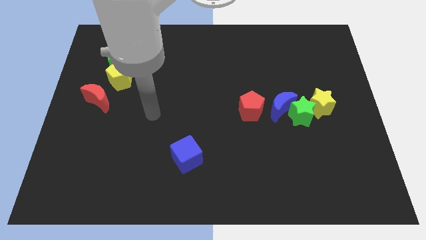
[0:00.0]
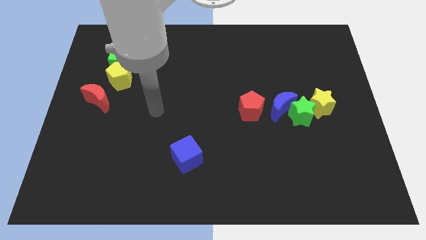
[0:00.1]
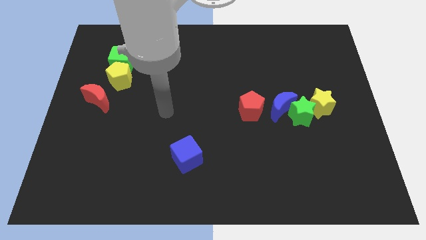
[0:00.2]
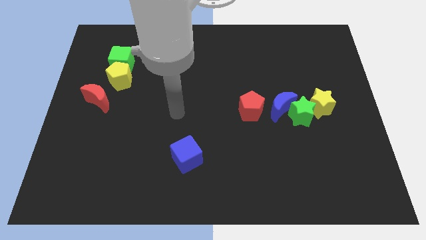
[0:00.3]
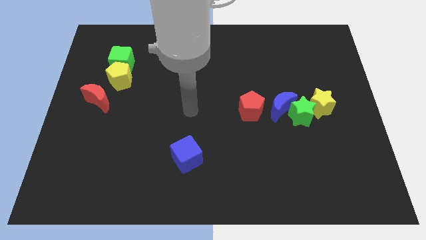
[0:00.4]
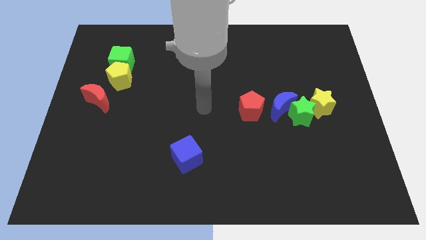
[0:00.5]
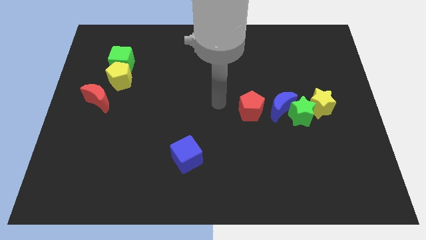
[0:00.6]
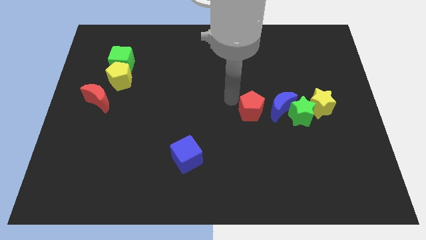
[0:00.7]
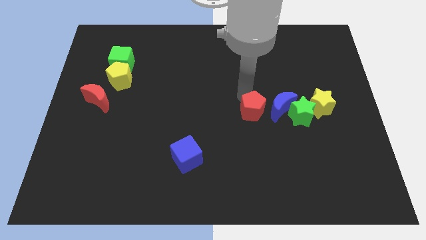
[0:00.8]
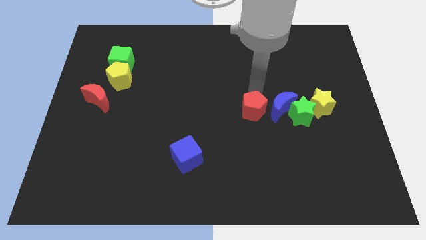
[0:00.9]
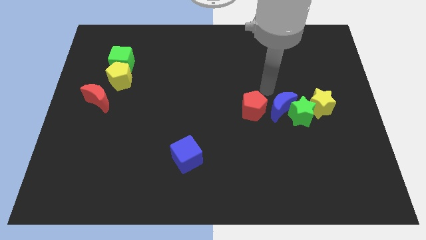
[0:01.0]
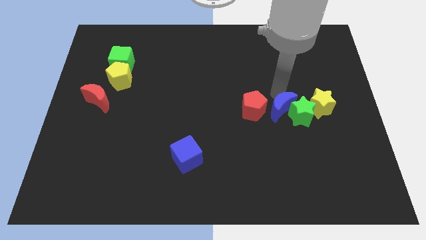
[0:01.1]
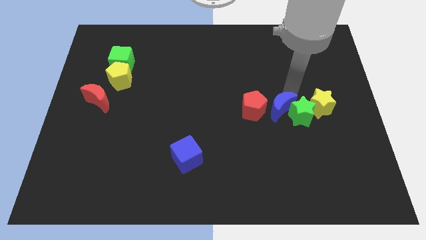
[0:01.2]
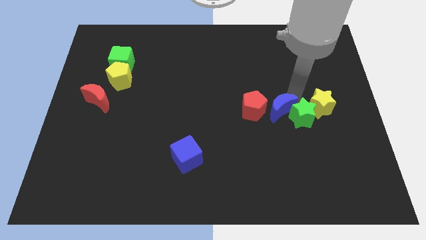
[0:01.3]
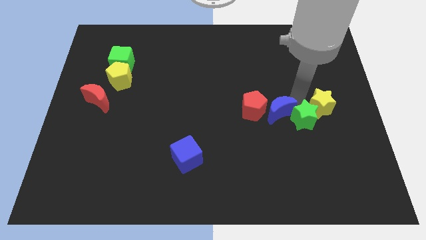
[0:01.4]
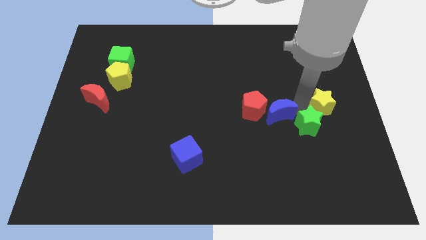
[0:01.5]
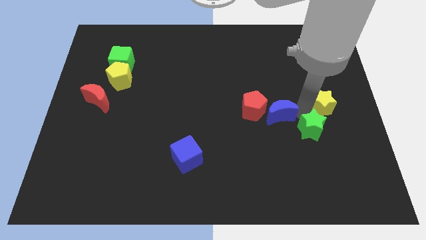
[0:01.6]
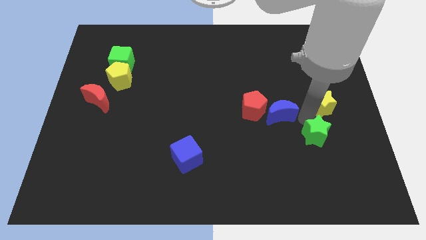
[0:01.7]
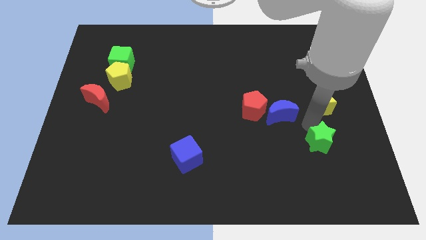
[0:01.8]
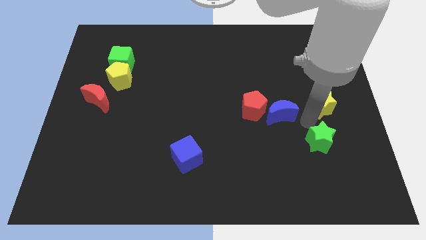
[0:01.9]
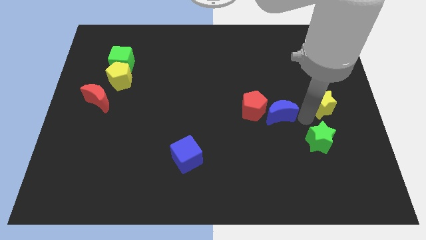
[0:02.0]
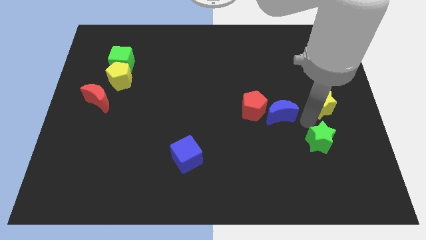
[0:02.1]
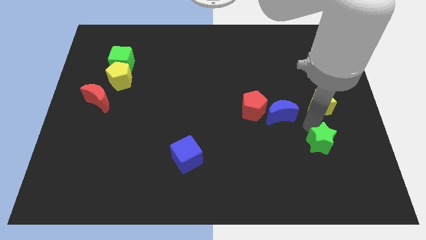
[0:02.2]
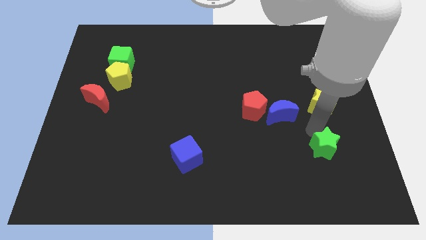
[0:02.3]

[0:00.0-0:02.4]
separate the green star from the blue moon and yellow star

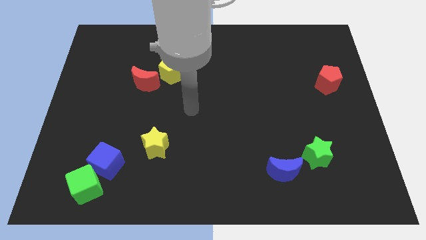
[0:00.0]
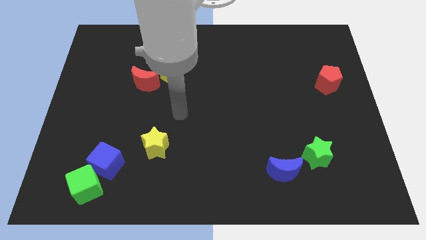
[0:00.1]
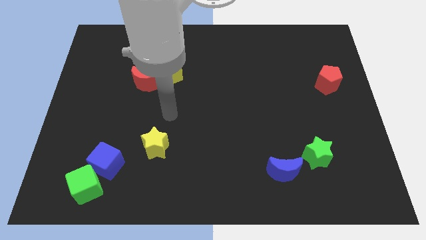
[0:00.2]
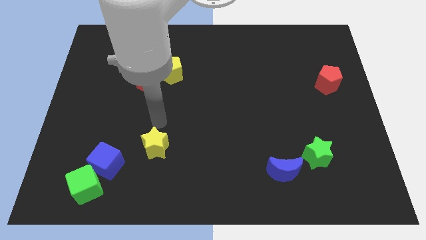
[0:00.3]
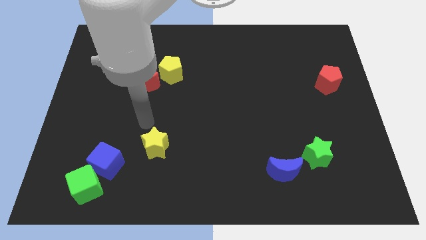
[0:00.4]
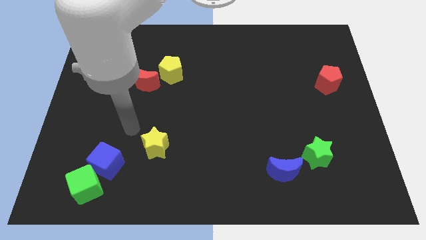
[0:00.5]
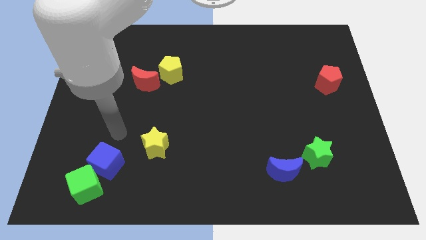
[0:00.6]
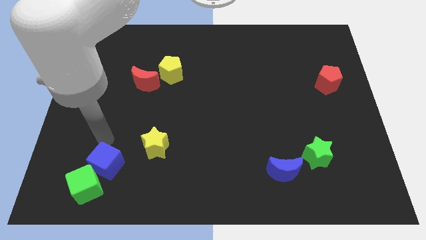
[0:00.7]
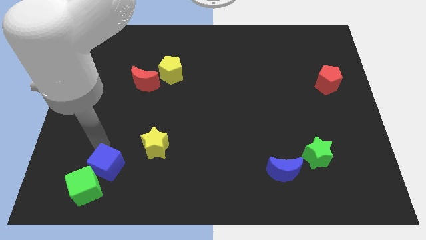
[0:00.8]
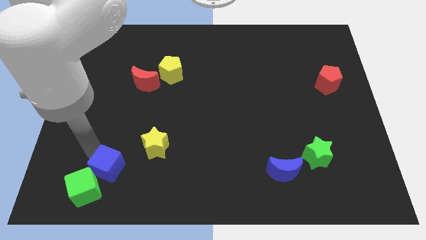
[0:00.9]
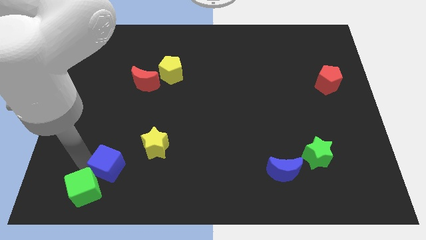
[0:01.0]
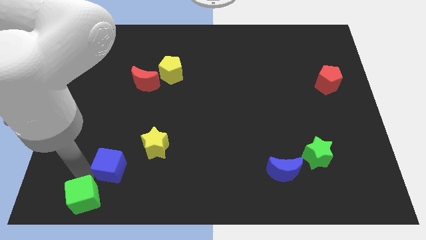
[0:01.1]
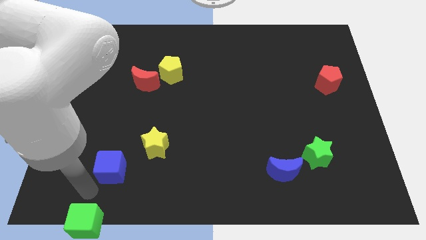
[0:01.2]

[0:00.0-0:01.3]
separate the blue cube from the green cube

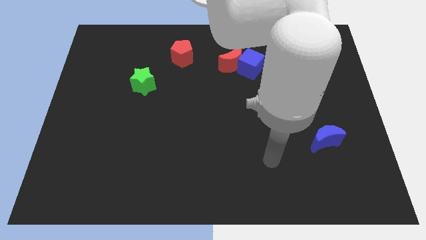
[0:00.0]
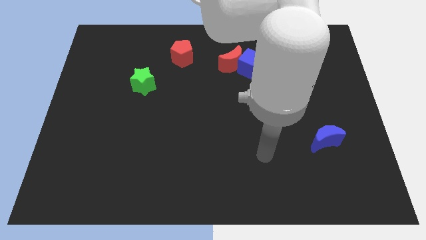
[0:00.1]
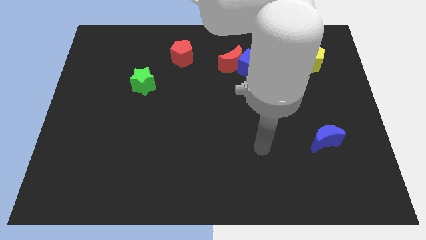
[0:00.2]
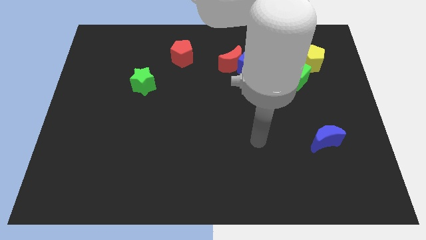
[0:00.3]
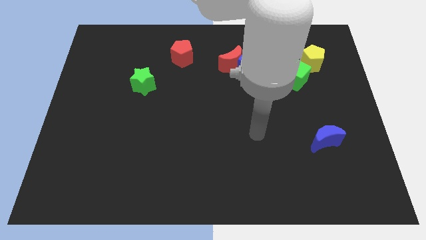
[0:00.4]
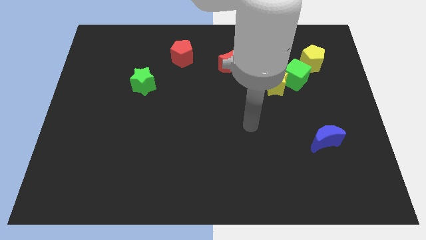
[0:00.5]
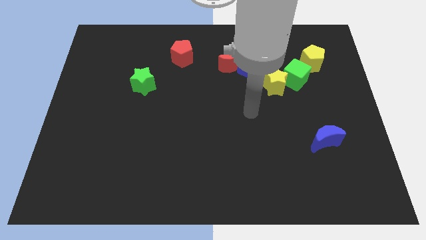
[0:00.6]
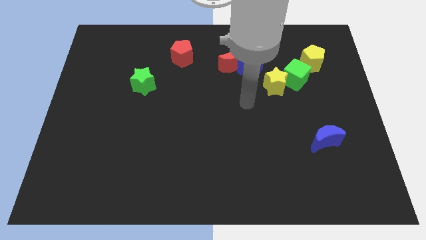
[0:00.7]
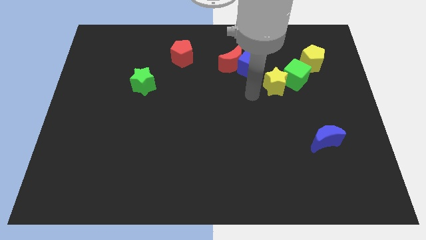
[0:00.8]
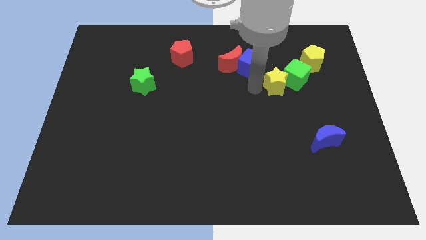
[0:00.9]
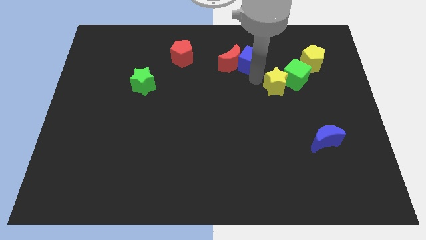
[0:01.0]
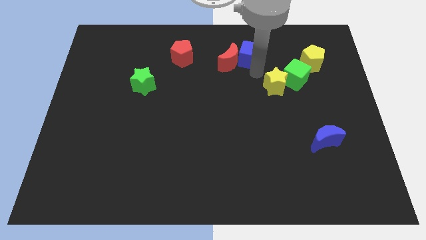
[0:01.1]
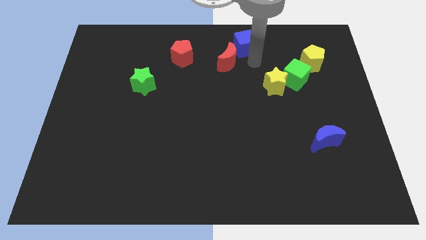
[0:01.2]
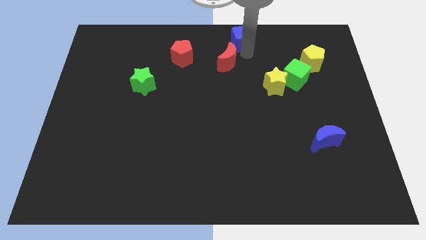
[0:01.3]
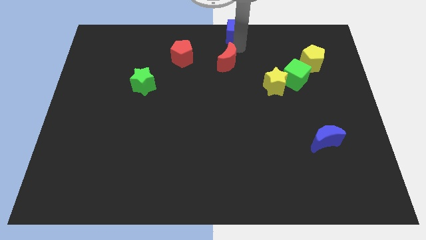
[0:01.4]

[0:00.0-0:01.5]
separate the red moon from the blue cube

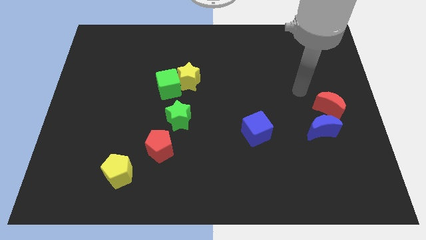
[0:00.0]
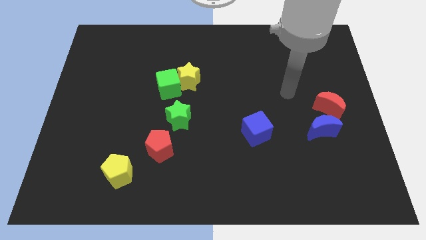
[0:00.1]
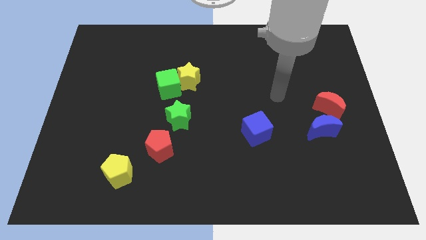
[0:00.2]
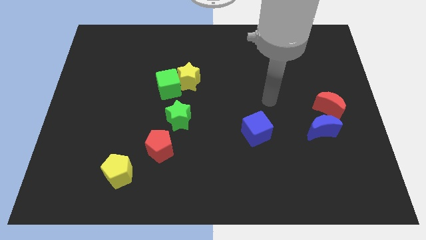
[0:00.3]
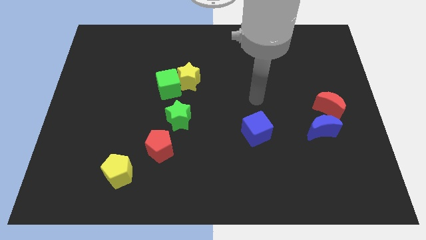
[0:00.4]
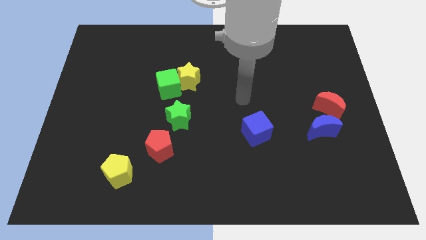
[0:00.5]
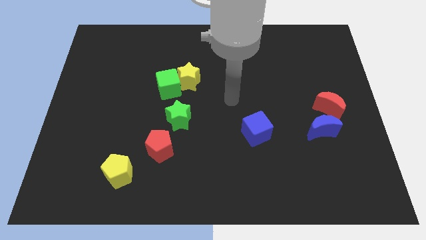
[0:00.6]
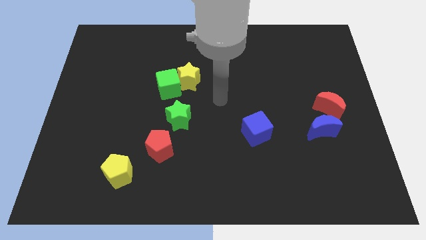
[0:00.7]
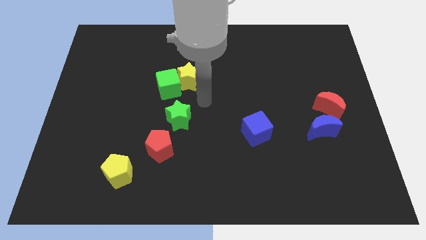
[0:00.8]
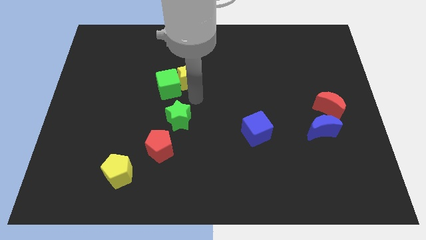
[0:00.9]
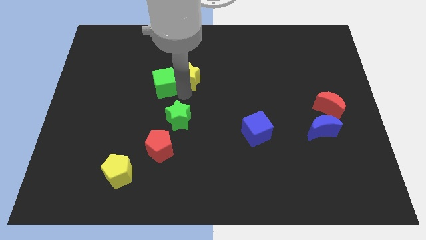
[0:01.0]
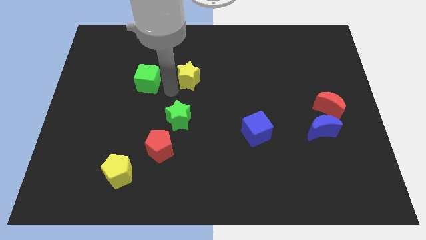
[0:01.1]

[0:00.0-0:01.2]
separate the yellow star from the green cube

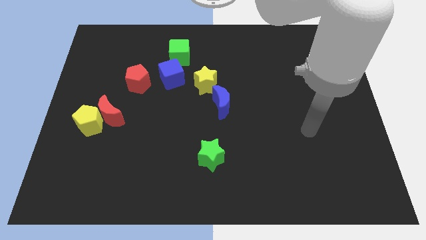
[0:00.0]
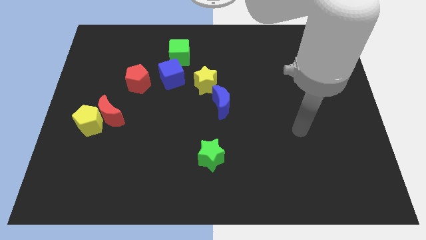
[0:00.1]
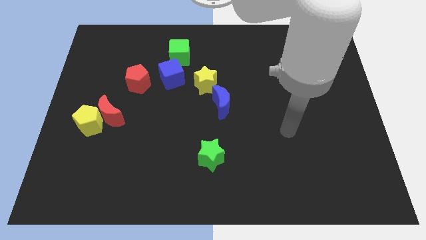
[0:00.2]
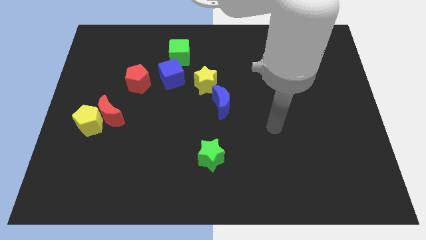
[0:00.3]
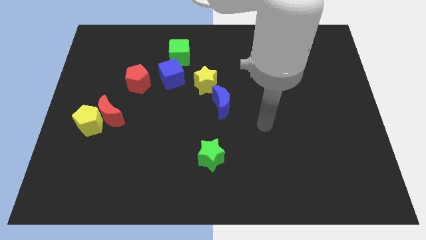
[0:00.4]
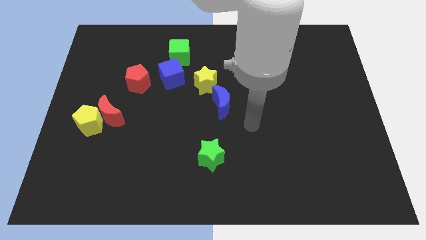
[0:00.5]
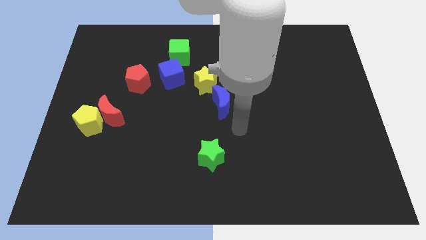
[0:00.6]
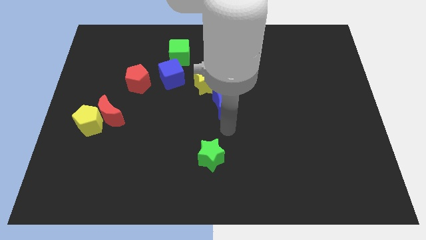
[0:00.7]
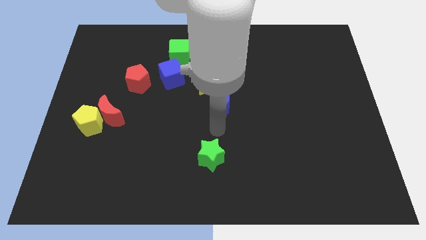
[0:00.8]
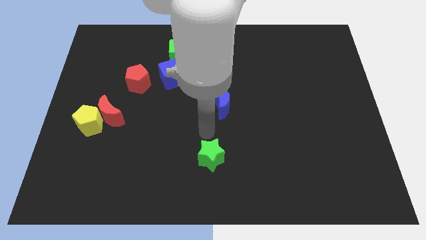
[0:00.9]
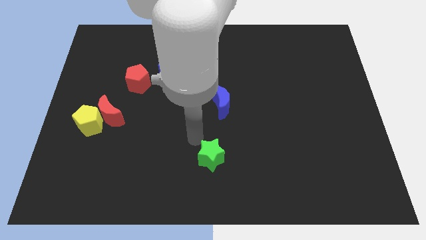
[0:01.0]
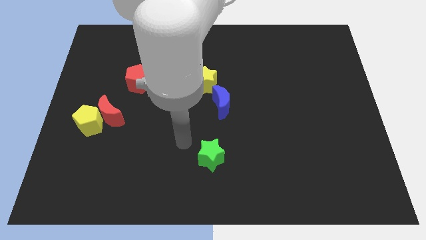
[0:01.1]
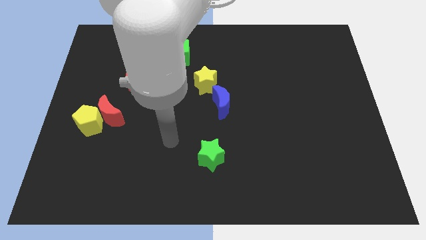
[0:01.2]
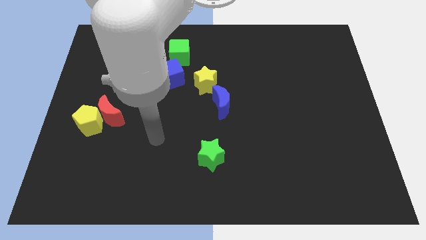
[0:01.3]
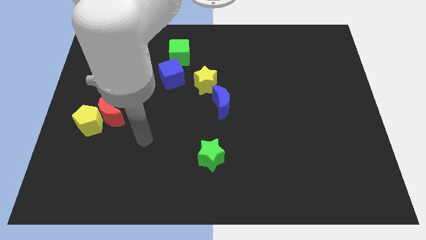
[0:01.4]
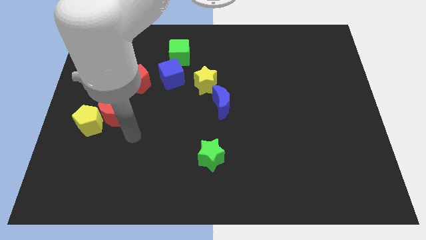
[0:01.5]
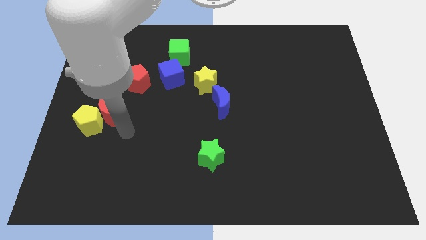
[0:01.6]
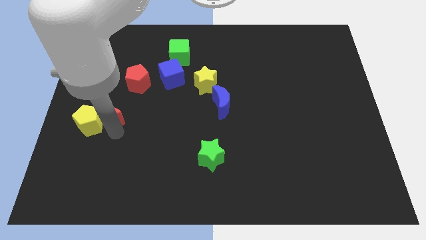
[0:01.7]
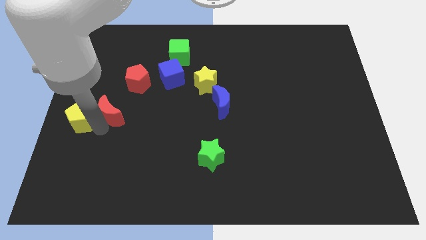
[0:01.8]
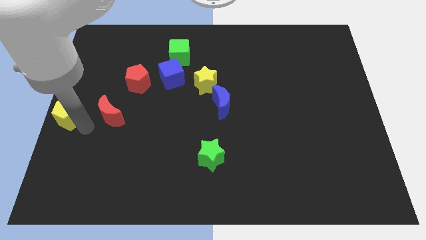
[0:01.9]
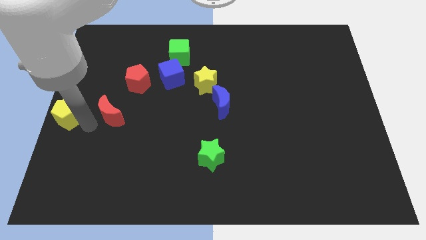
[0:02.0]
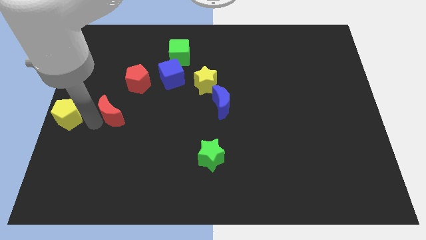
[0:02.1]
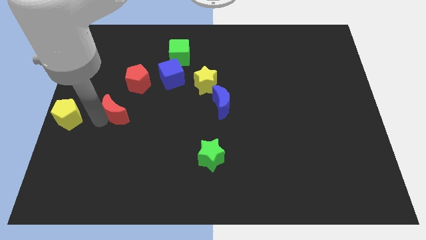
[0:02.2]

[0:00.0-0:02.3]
pull the red moon apart from the yellow pentagon

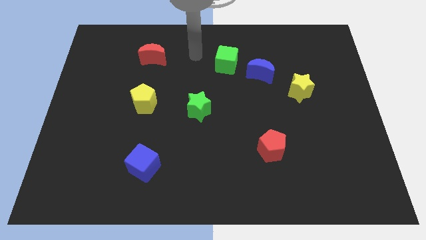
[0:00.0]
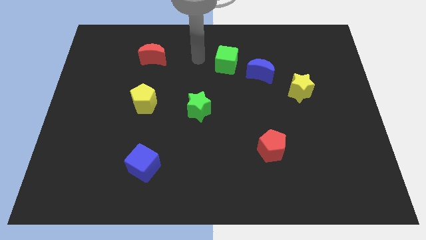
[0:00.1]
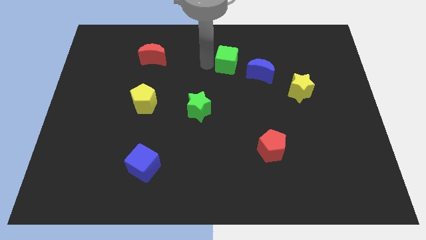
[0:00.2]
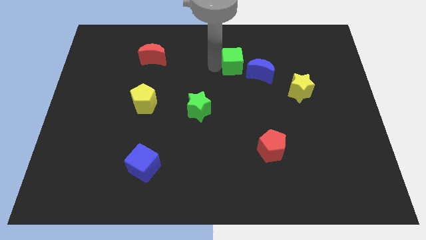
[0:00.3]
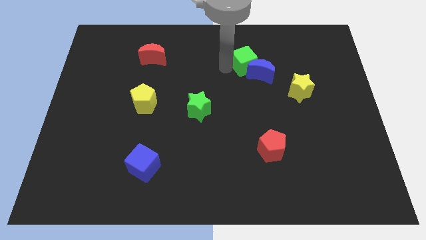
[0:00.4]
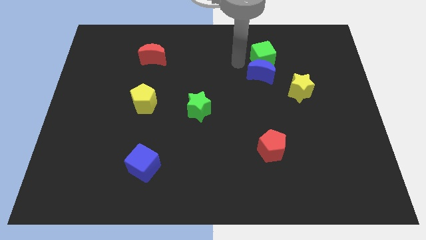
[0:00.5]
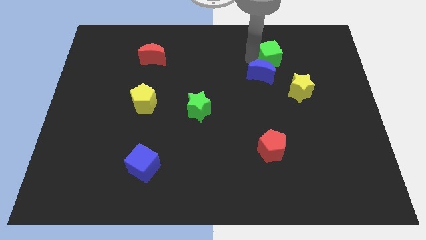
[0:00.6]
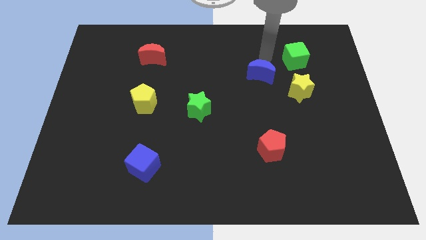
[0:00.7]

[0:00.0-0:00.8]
separate the blue moon from the green cube
